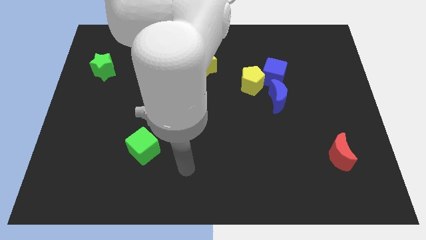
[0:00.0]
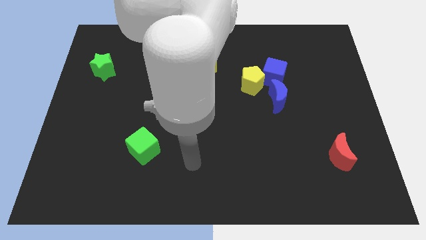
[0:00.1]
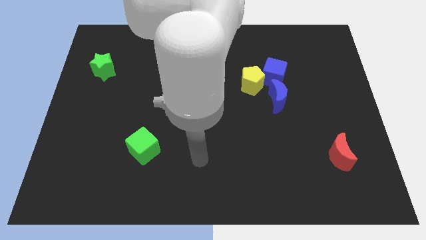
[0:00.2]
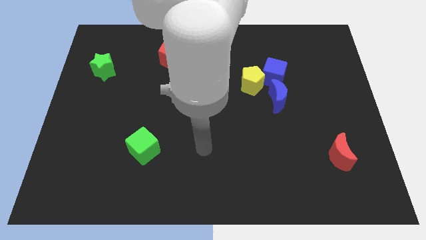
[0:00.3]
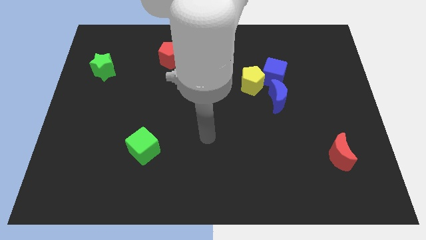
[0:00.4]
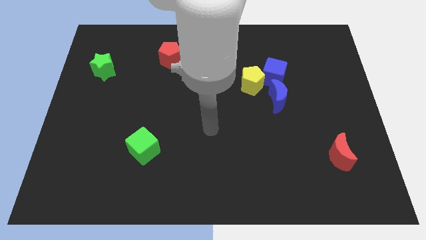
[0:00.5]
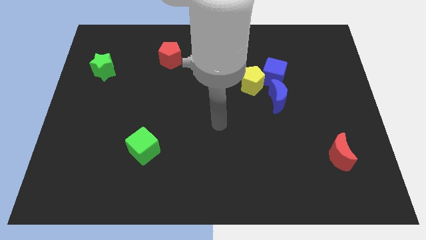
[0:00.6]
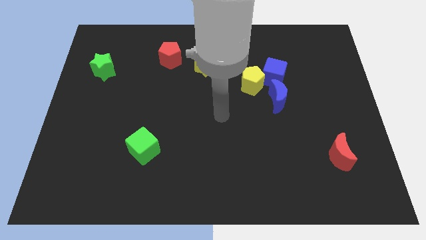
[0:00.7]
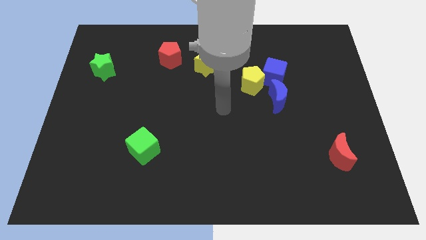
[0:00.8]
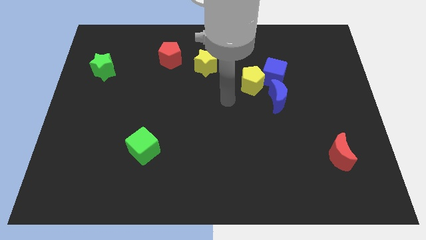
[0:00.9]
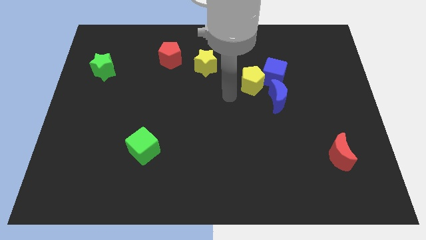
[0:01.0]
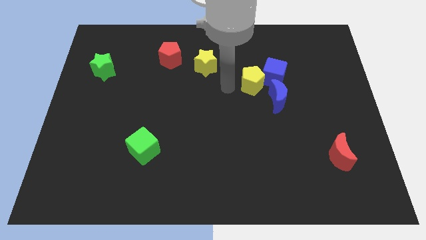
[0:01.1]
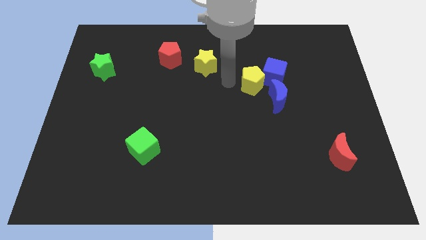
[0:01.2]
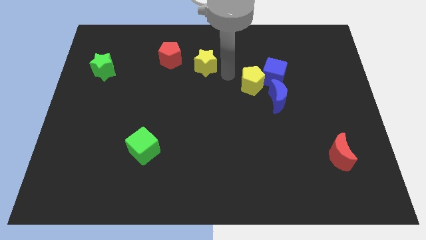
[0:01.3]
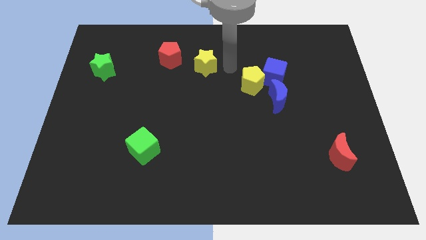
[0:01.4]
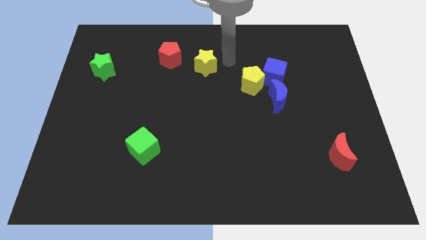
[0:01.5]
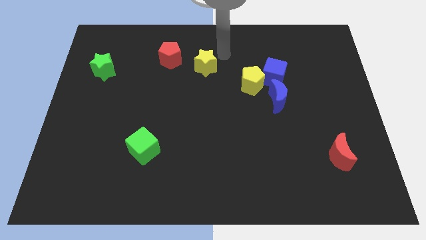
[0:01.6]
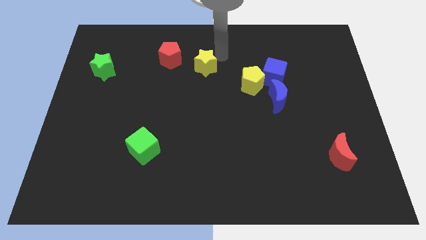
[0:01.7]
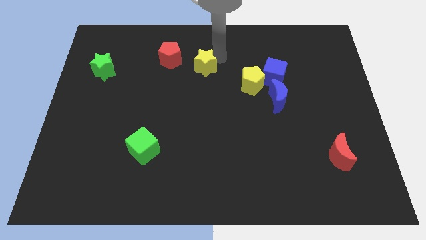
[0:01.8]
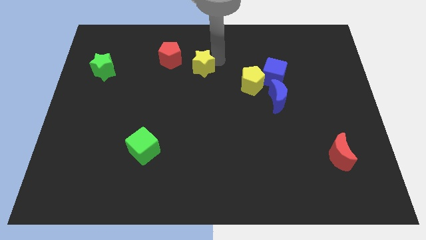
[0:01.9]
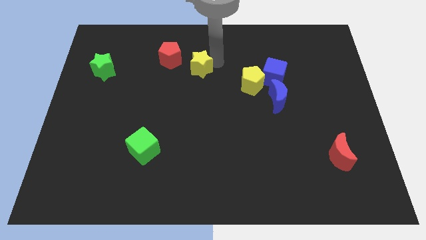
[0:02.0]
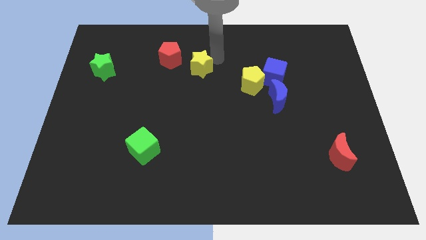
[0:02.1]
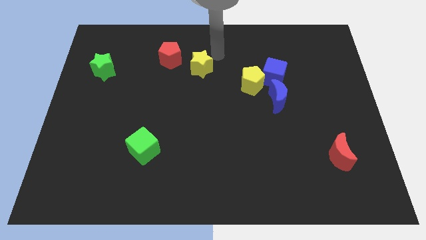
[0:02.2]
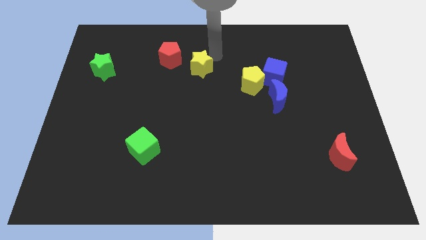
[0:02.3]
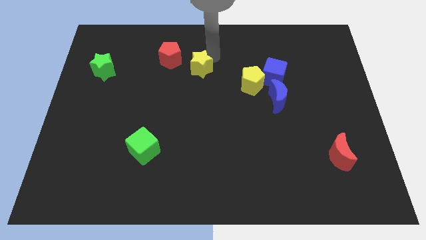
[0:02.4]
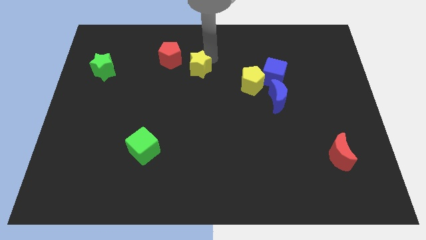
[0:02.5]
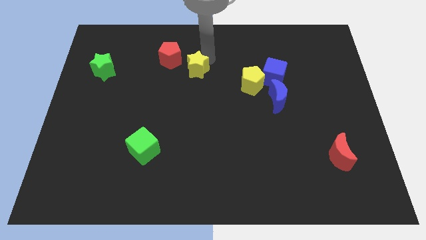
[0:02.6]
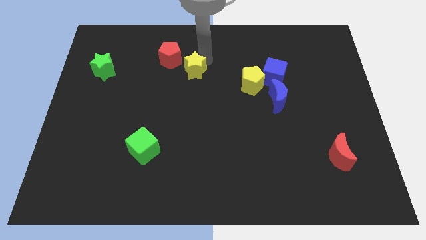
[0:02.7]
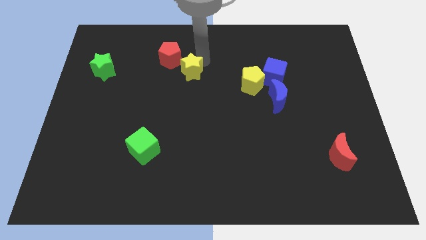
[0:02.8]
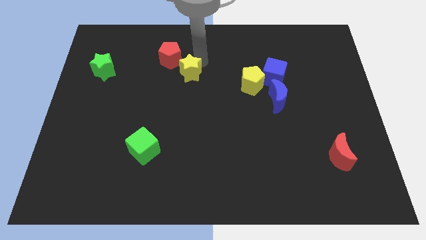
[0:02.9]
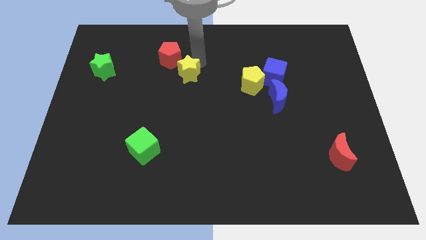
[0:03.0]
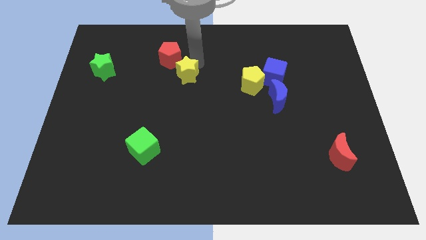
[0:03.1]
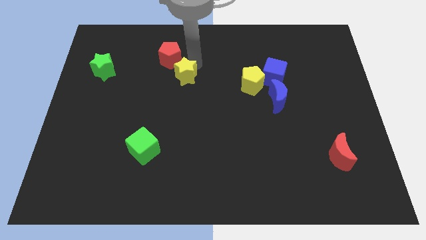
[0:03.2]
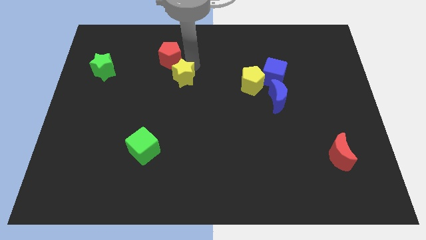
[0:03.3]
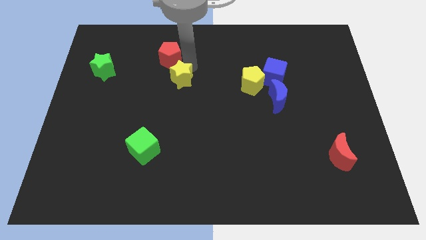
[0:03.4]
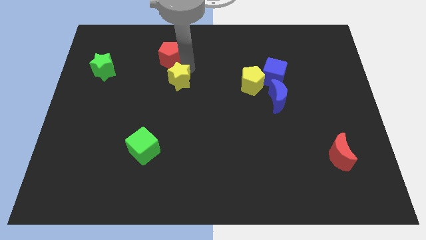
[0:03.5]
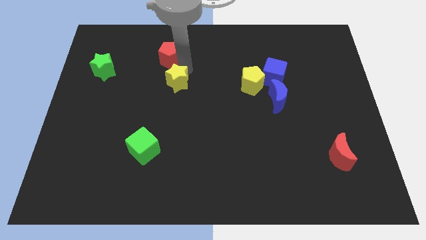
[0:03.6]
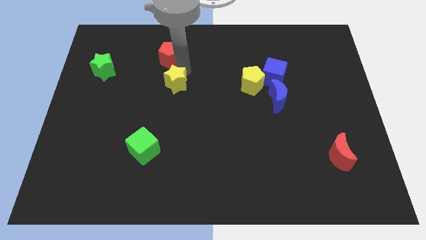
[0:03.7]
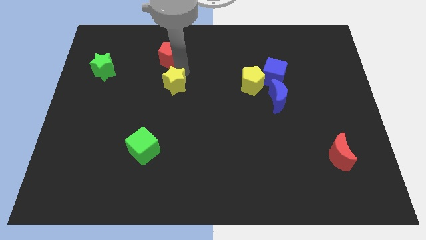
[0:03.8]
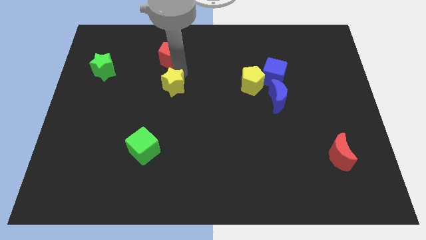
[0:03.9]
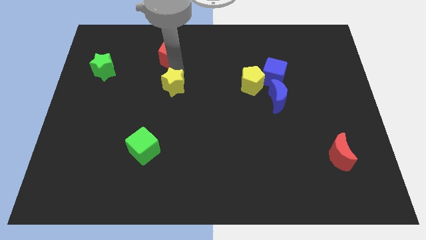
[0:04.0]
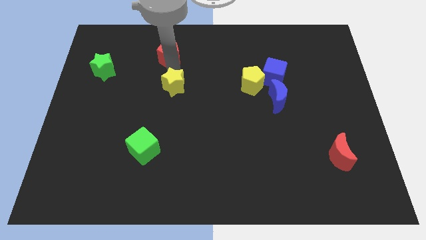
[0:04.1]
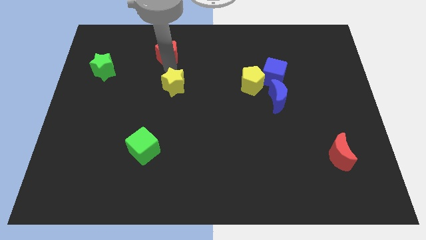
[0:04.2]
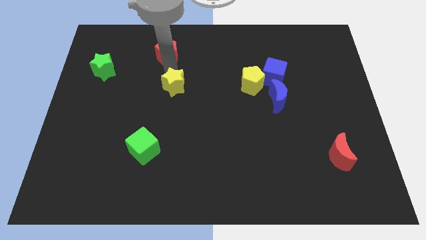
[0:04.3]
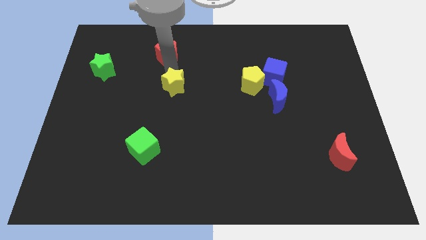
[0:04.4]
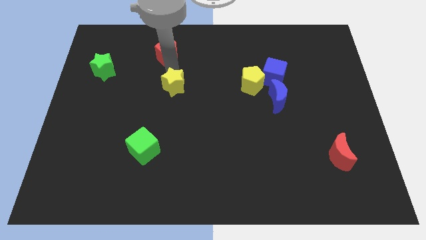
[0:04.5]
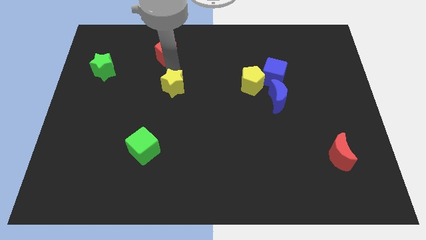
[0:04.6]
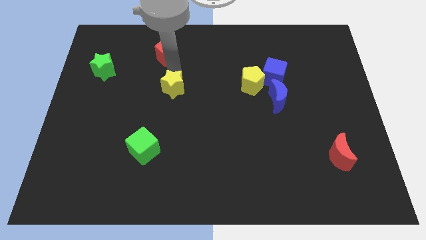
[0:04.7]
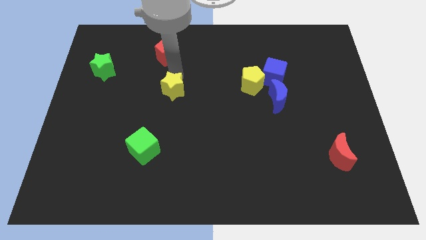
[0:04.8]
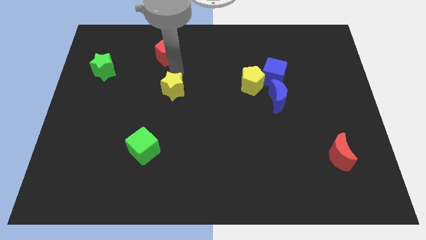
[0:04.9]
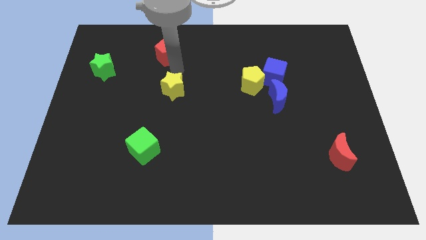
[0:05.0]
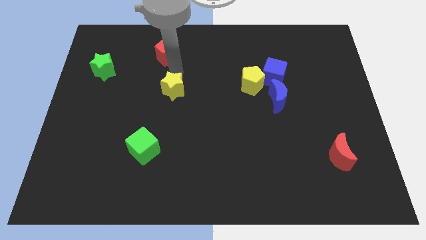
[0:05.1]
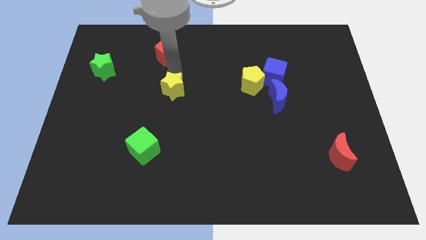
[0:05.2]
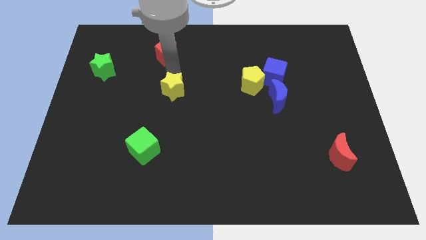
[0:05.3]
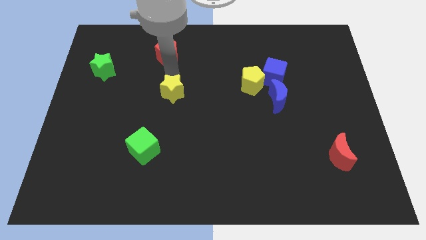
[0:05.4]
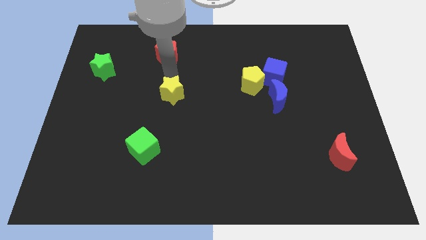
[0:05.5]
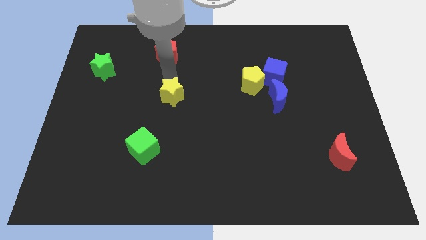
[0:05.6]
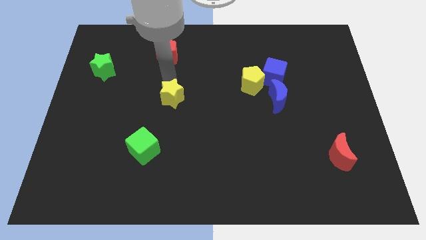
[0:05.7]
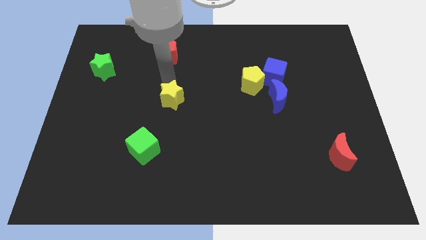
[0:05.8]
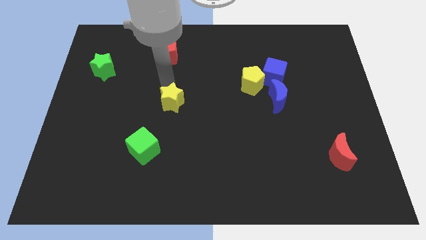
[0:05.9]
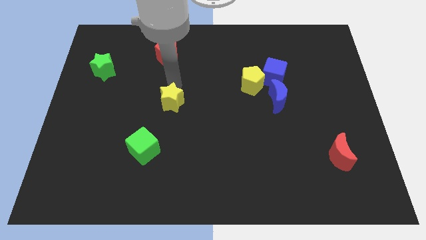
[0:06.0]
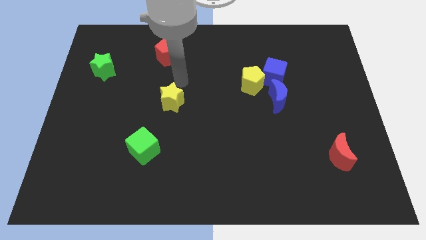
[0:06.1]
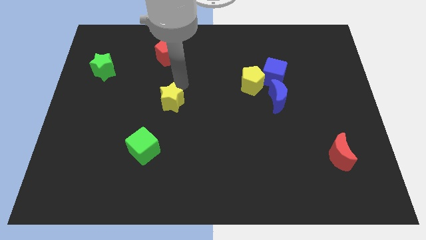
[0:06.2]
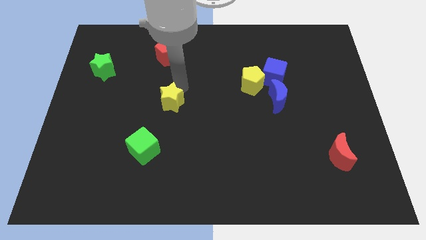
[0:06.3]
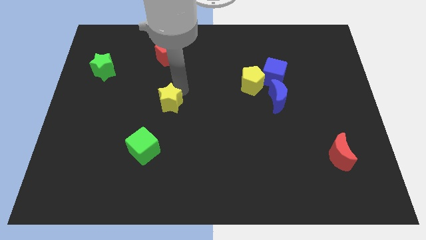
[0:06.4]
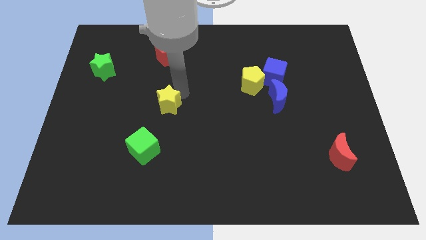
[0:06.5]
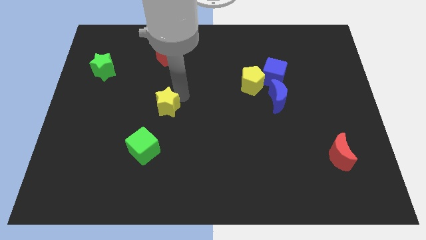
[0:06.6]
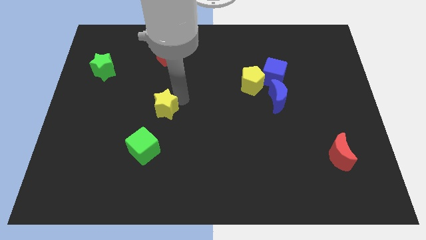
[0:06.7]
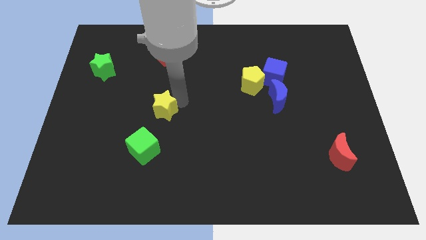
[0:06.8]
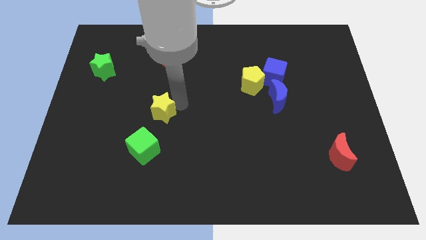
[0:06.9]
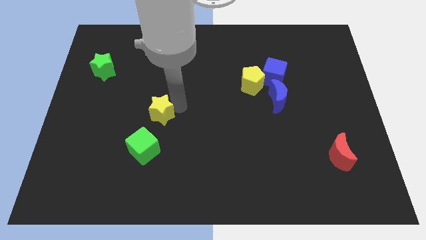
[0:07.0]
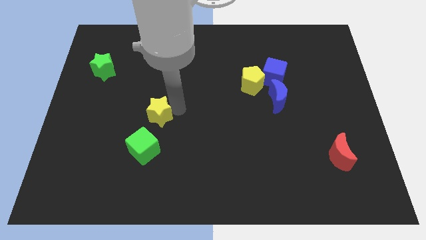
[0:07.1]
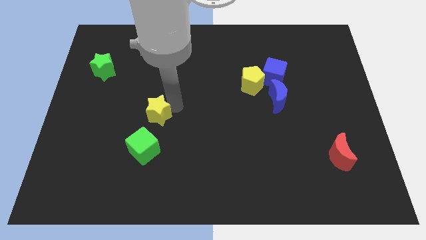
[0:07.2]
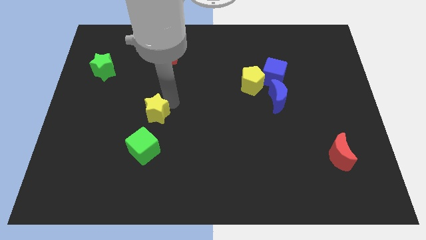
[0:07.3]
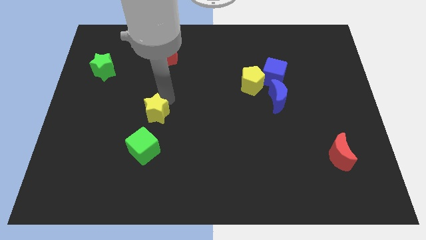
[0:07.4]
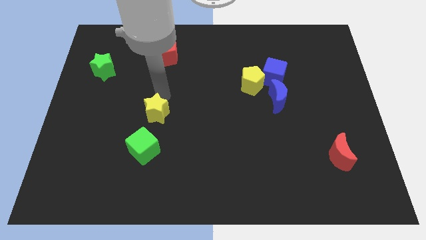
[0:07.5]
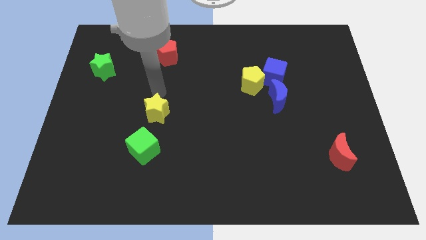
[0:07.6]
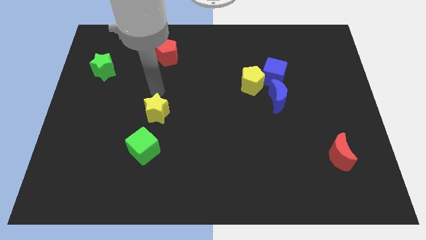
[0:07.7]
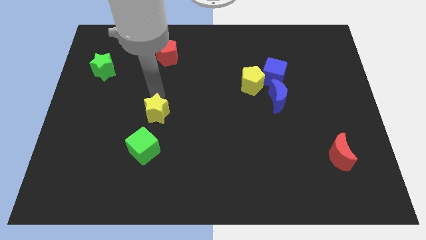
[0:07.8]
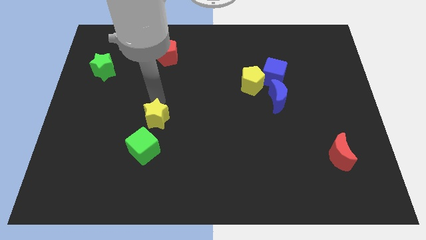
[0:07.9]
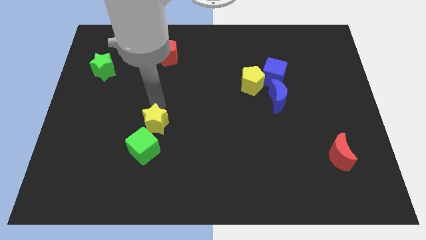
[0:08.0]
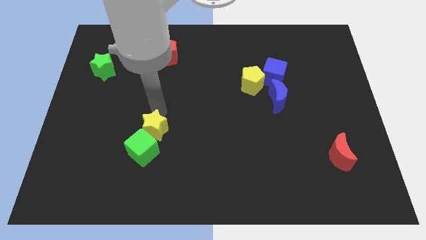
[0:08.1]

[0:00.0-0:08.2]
slide the yellow star next to the green cube
